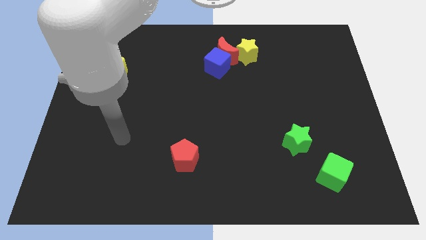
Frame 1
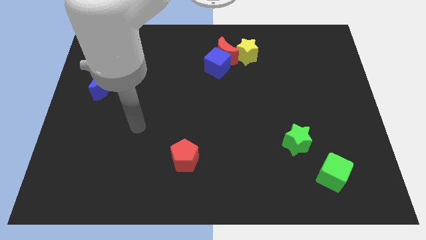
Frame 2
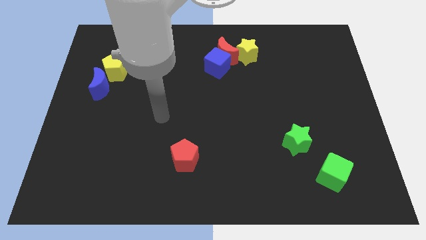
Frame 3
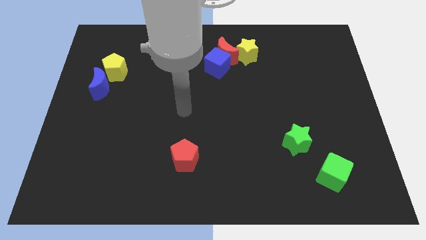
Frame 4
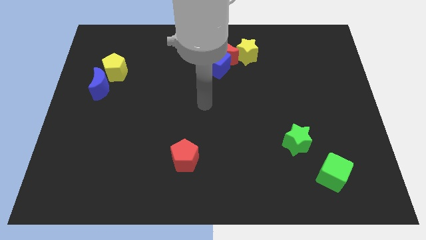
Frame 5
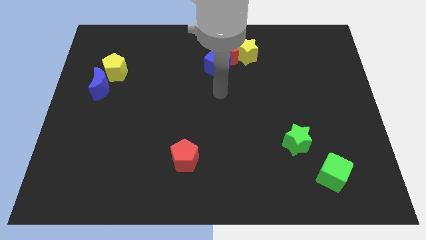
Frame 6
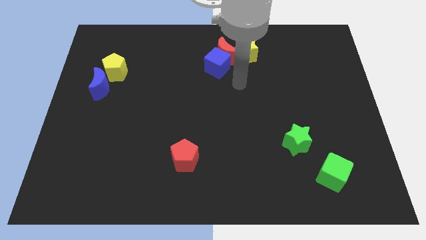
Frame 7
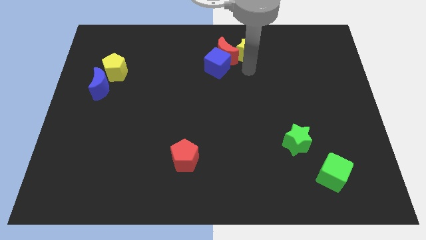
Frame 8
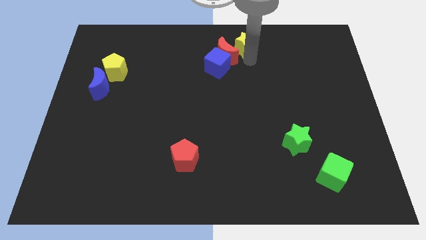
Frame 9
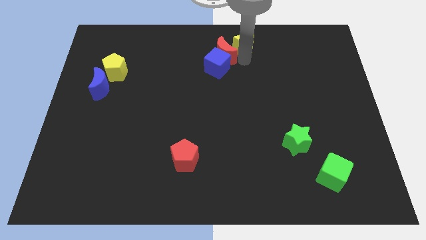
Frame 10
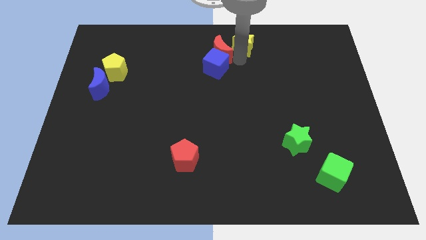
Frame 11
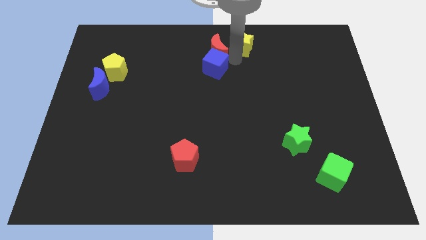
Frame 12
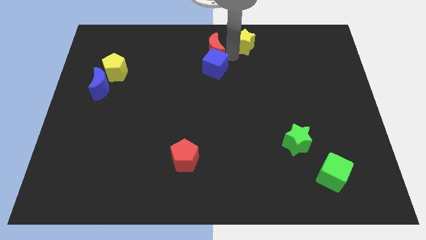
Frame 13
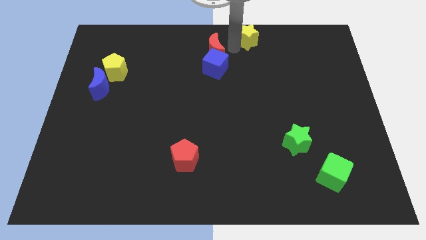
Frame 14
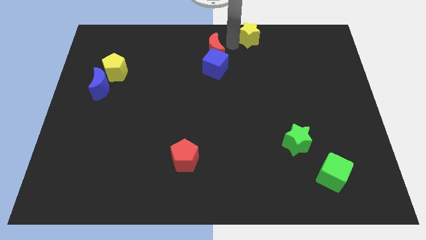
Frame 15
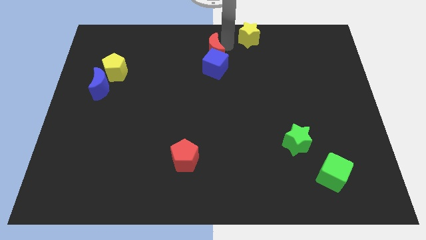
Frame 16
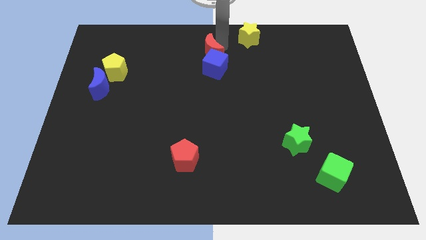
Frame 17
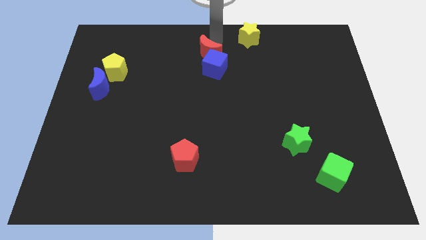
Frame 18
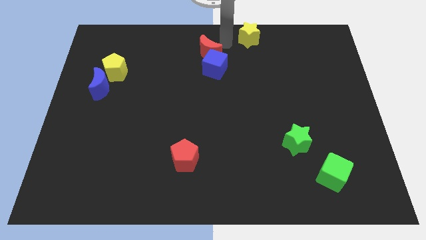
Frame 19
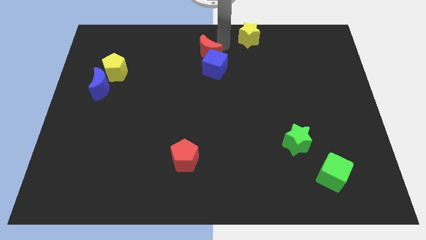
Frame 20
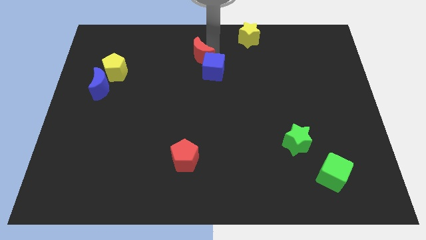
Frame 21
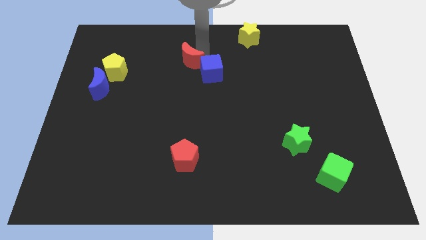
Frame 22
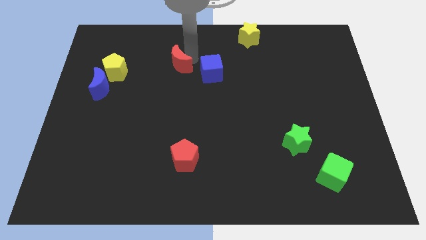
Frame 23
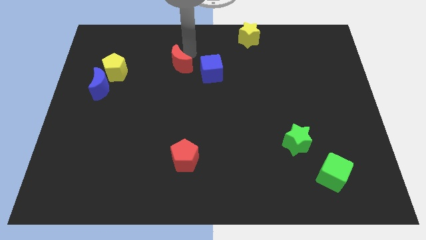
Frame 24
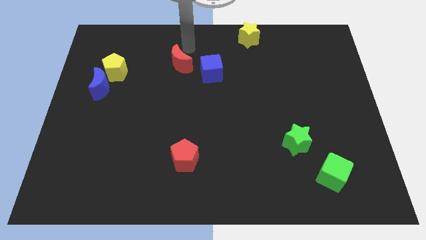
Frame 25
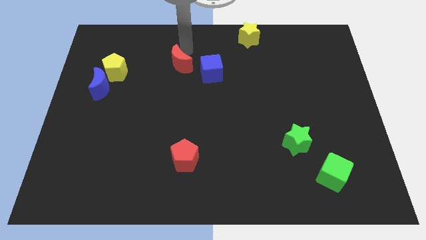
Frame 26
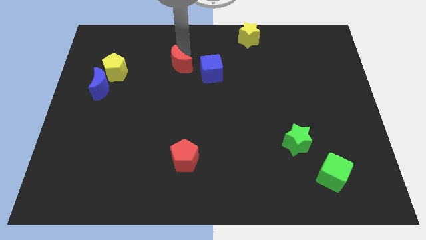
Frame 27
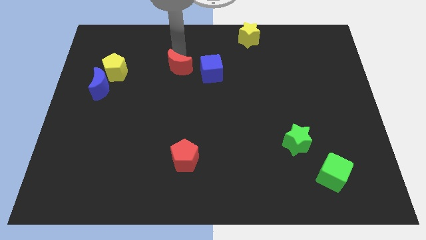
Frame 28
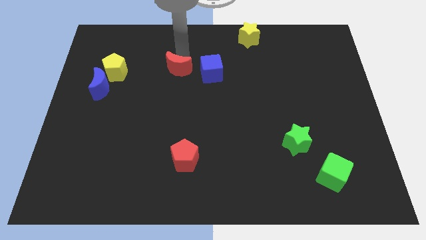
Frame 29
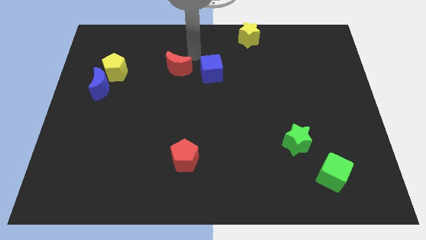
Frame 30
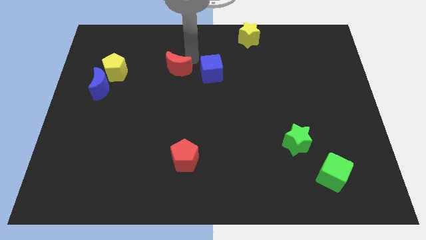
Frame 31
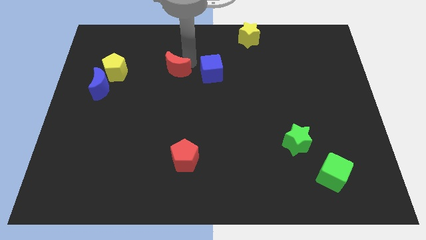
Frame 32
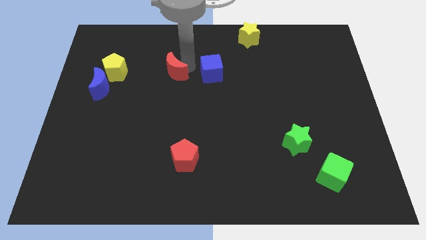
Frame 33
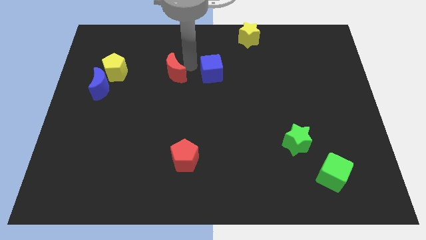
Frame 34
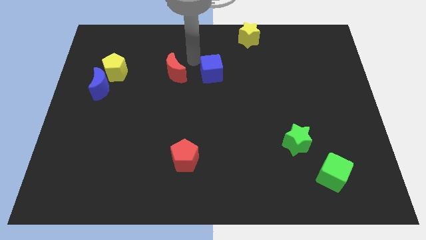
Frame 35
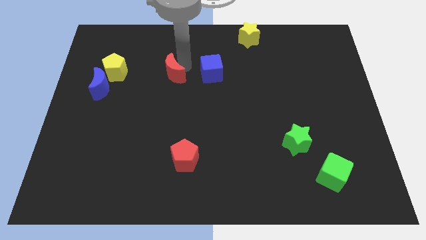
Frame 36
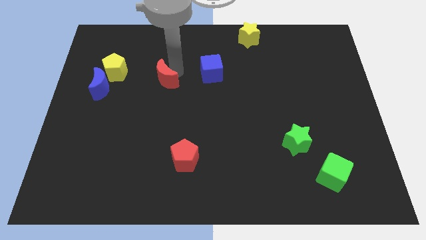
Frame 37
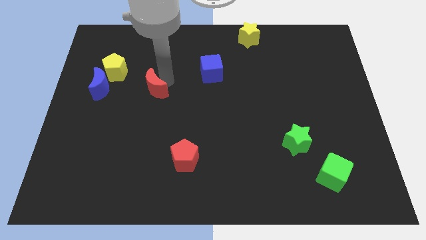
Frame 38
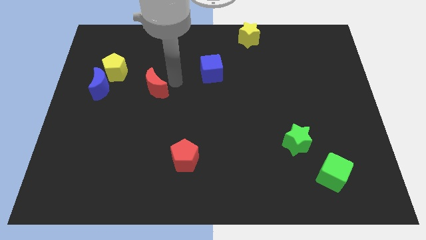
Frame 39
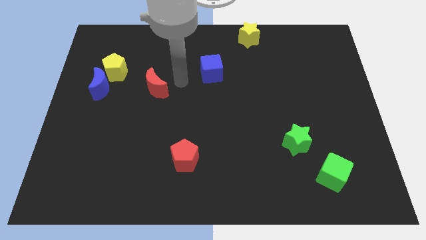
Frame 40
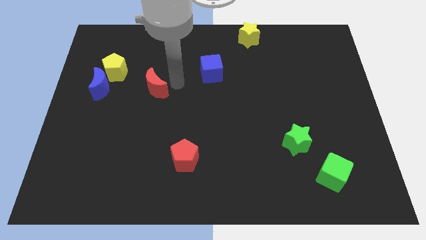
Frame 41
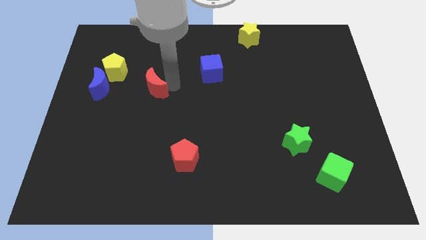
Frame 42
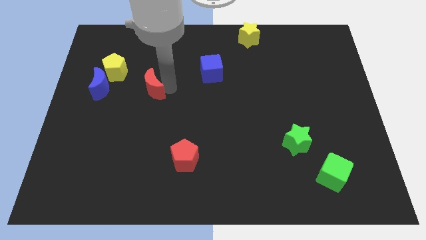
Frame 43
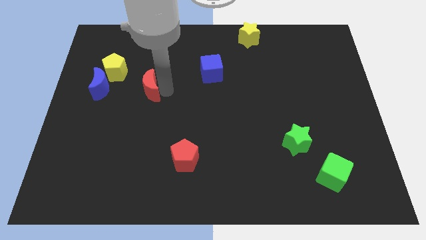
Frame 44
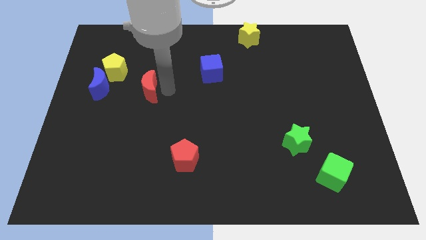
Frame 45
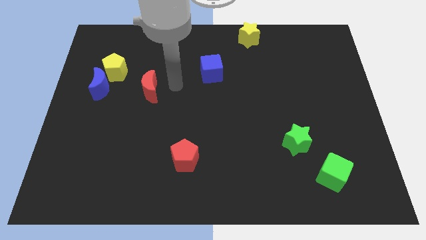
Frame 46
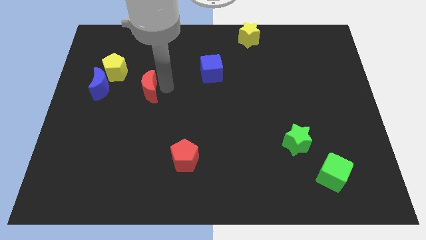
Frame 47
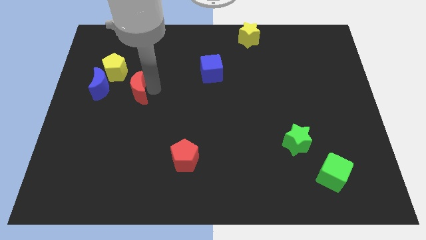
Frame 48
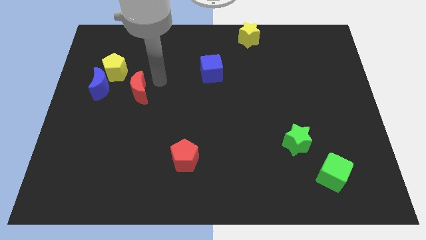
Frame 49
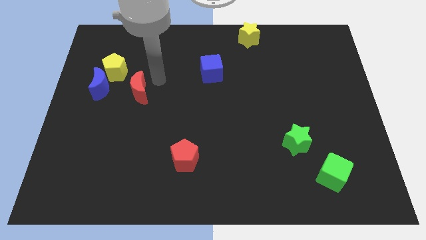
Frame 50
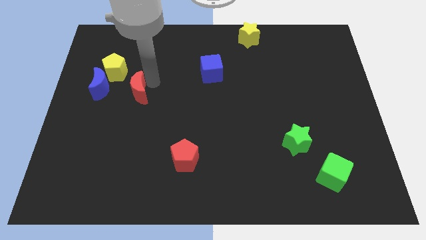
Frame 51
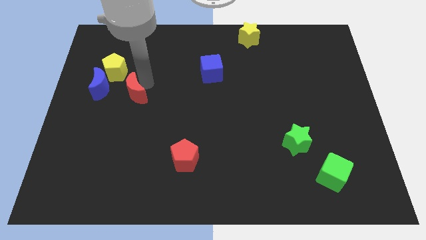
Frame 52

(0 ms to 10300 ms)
slide the red moon to the bottom right of the blue moon

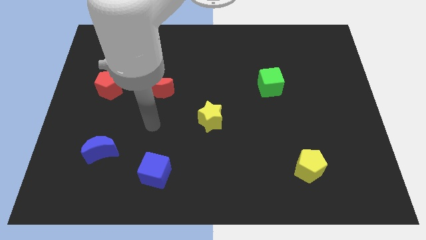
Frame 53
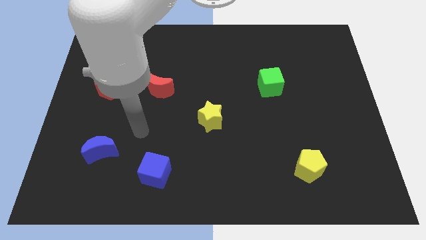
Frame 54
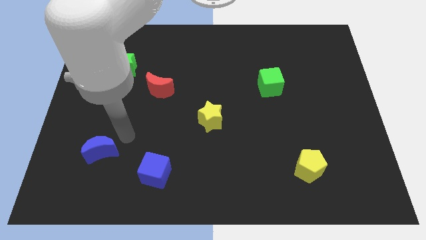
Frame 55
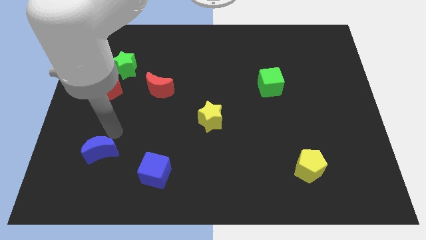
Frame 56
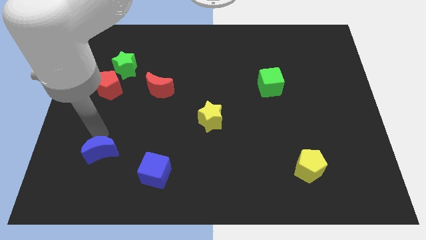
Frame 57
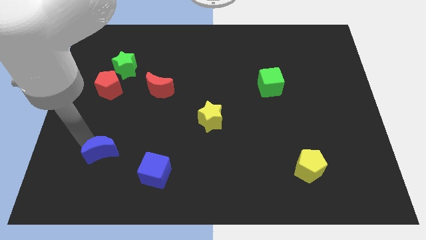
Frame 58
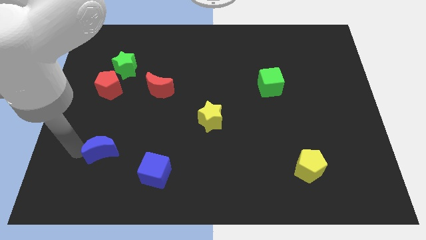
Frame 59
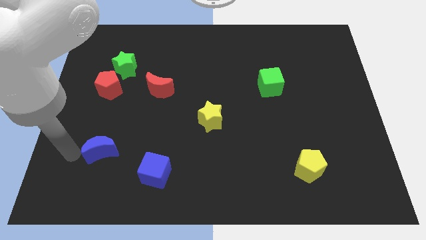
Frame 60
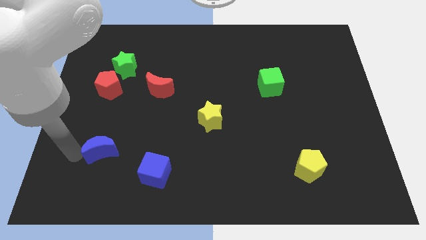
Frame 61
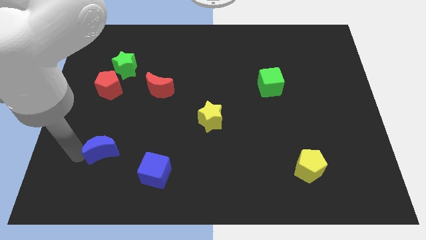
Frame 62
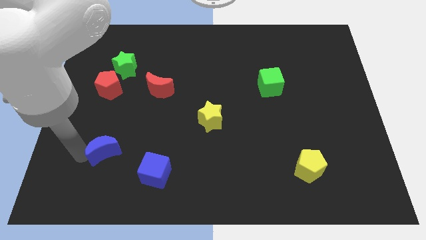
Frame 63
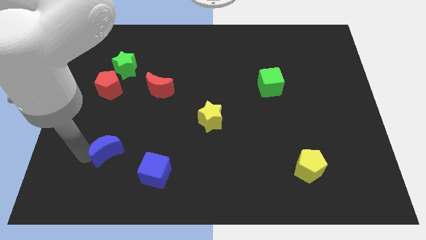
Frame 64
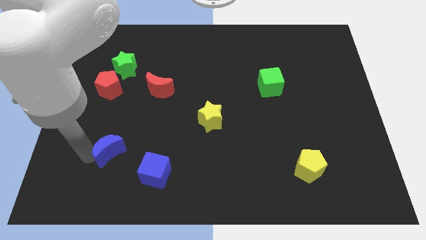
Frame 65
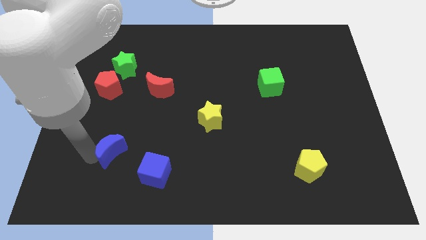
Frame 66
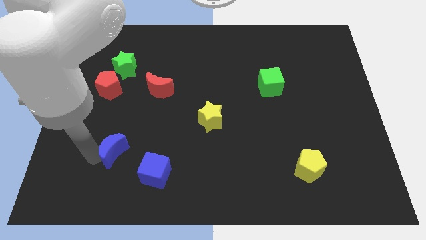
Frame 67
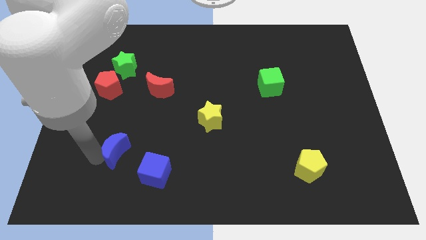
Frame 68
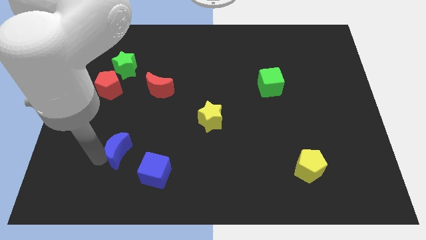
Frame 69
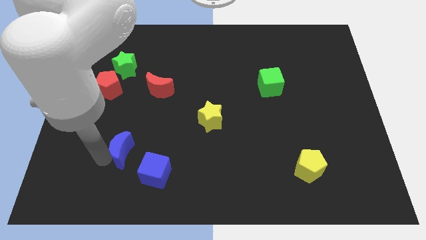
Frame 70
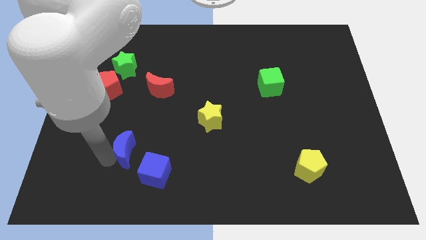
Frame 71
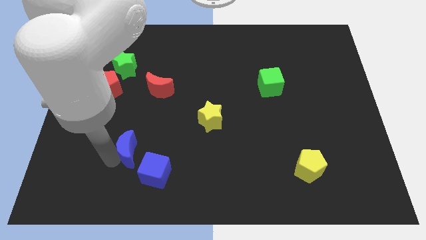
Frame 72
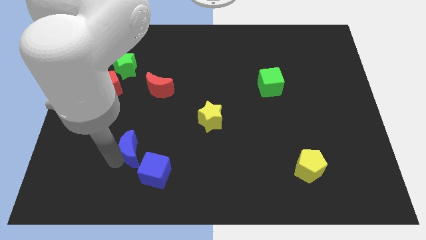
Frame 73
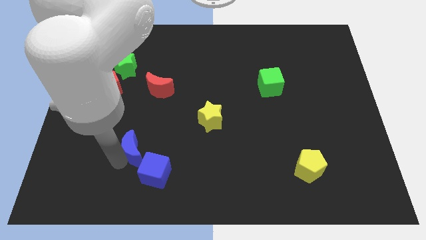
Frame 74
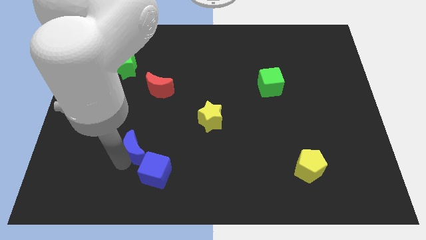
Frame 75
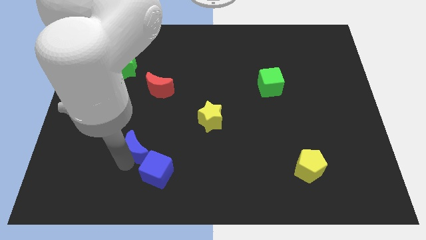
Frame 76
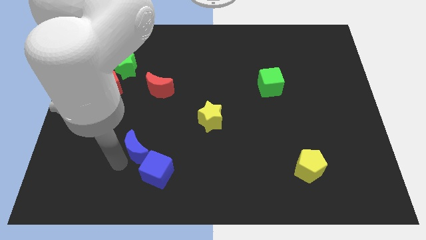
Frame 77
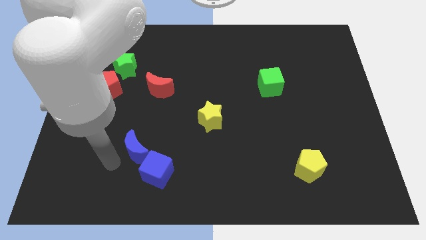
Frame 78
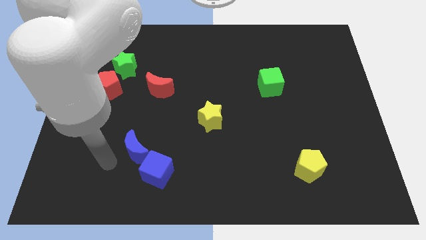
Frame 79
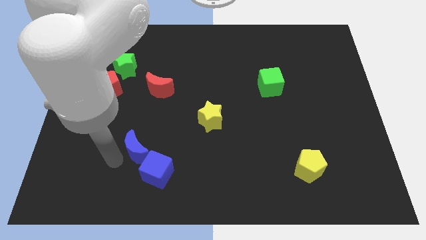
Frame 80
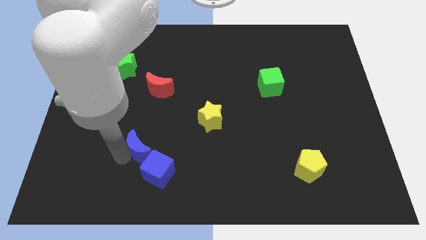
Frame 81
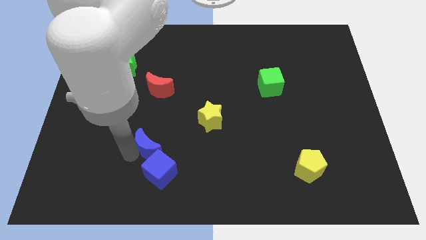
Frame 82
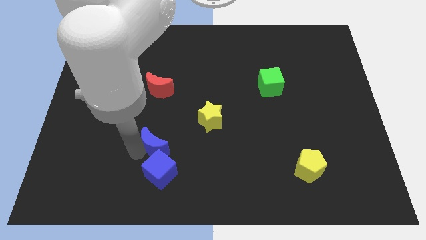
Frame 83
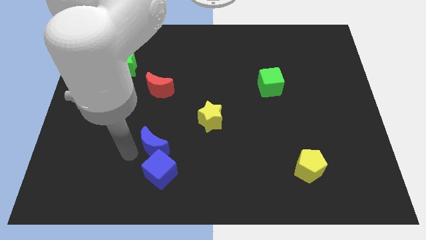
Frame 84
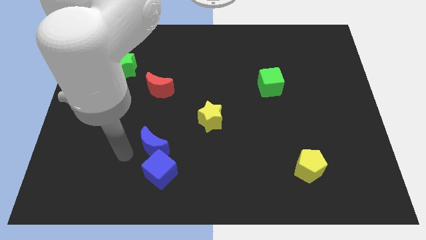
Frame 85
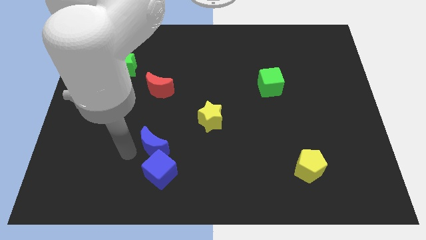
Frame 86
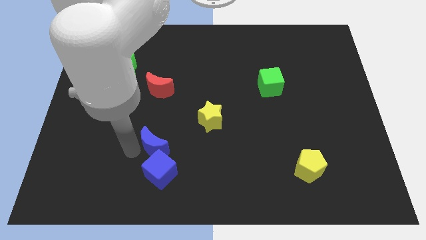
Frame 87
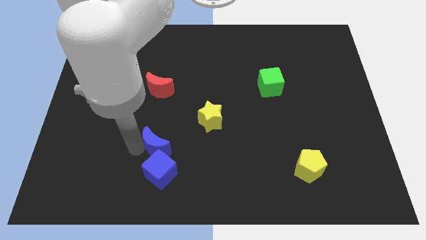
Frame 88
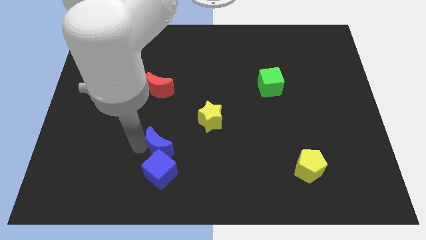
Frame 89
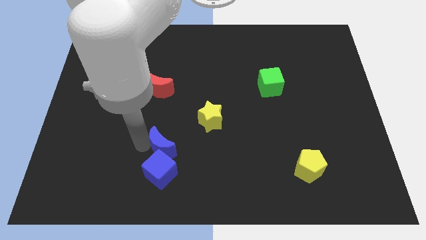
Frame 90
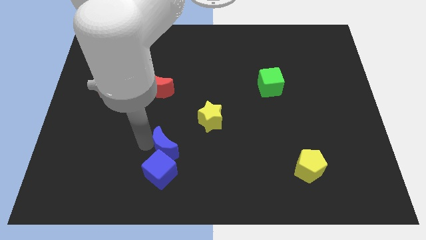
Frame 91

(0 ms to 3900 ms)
put the blue moon to the bottom left side of the yellow star
